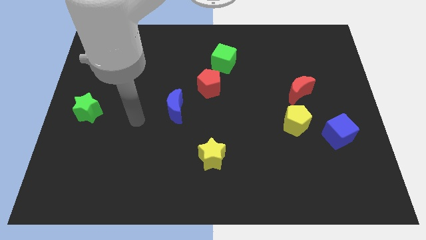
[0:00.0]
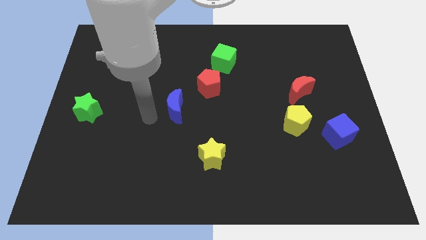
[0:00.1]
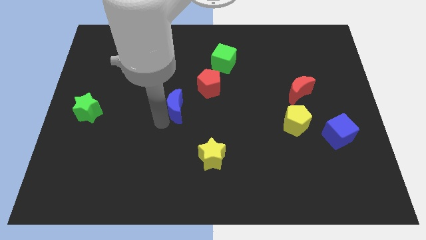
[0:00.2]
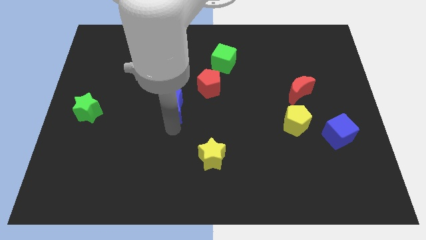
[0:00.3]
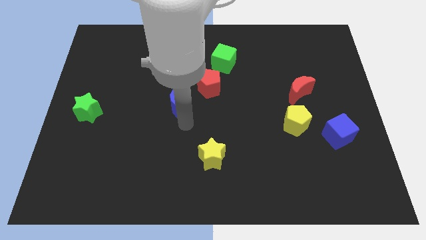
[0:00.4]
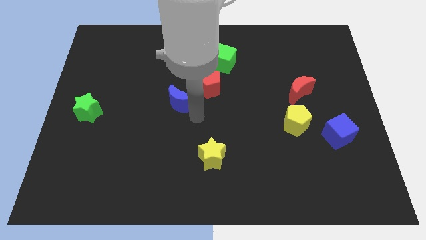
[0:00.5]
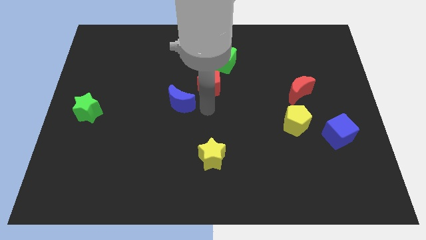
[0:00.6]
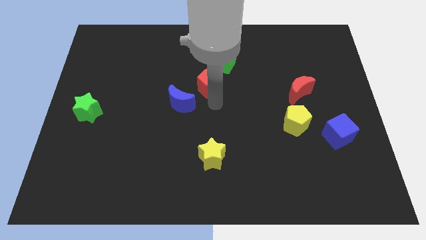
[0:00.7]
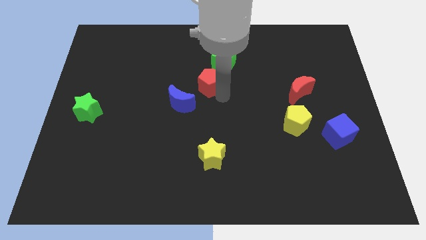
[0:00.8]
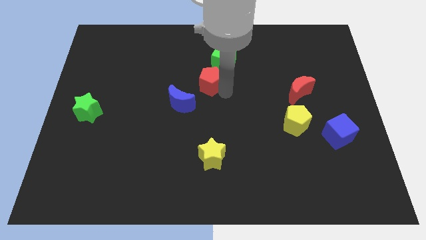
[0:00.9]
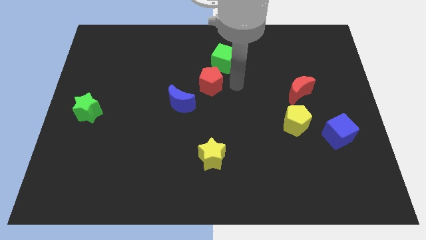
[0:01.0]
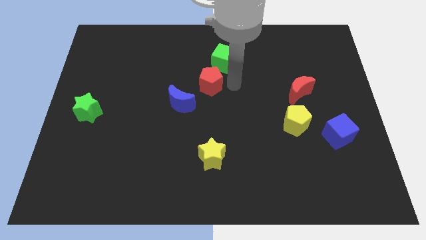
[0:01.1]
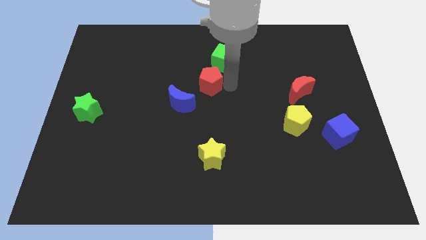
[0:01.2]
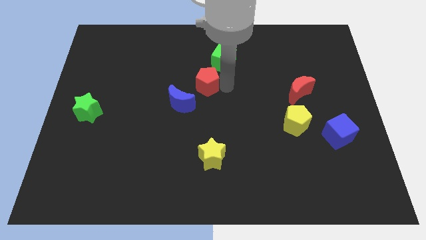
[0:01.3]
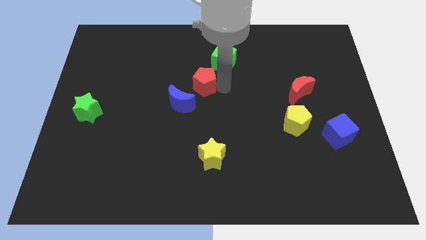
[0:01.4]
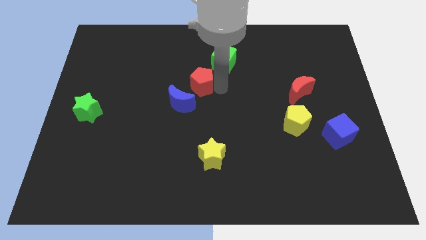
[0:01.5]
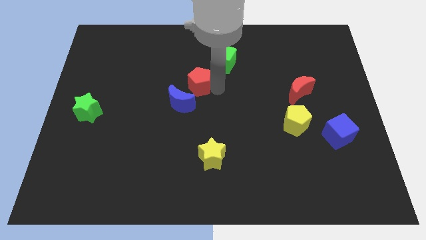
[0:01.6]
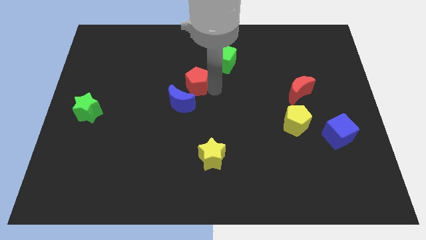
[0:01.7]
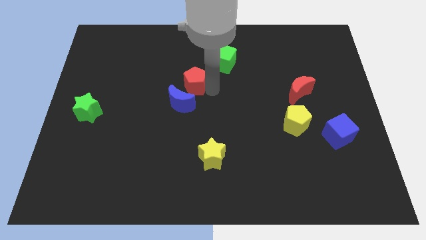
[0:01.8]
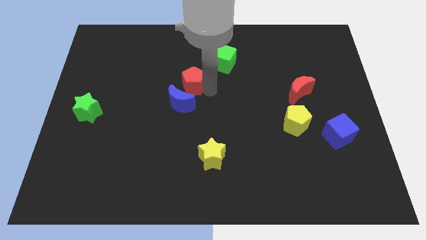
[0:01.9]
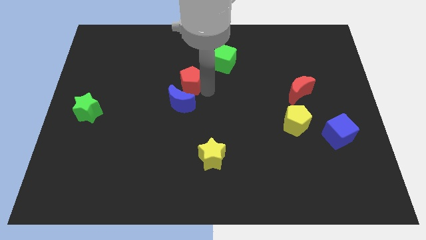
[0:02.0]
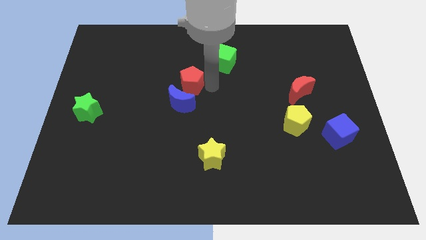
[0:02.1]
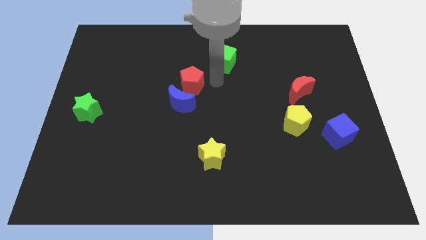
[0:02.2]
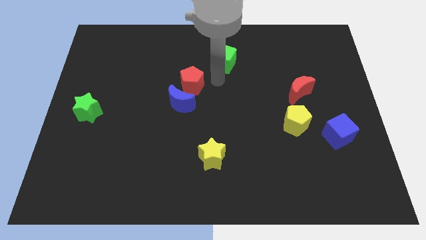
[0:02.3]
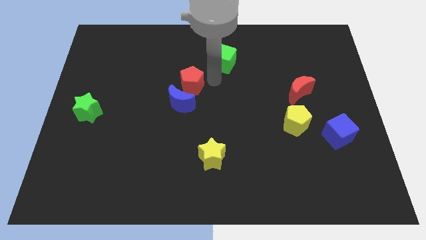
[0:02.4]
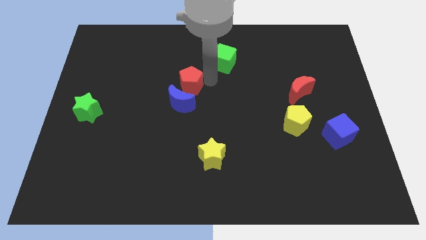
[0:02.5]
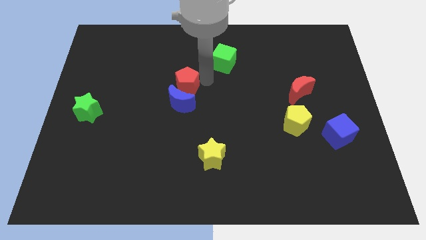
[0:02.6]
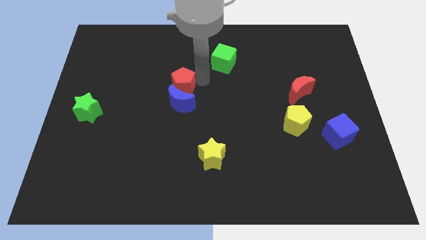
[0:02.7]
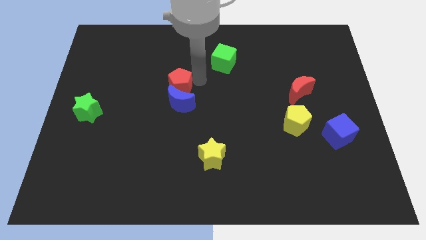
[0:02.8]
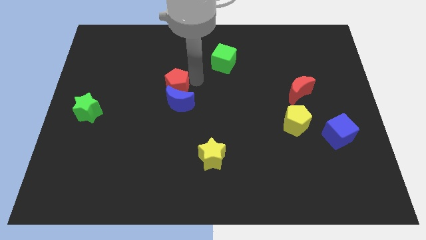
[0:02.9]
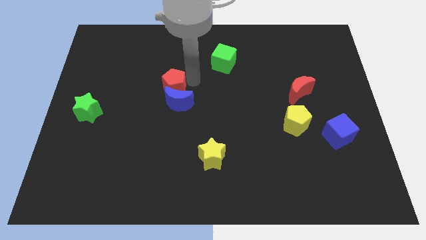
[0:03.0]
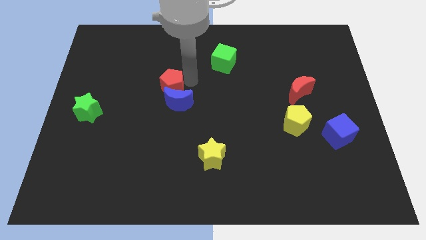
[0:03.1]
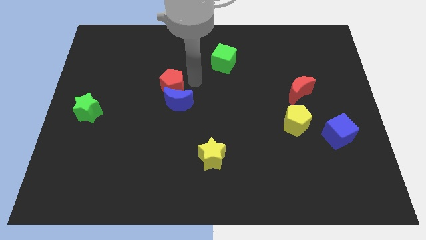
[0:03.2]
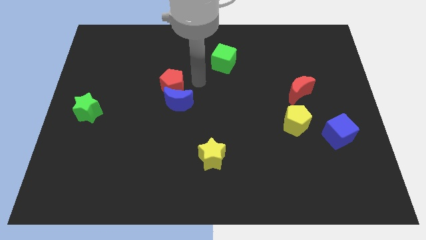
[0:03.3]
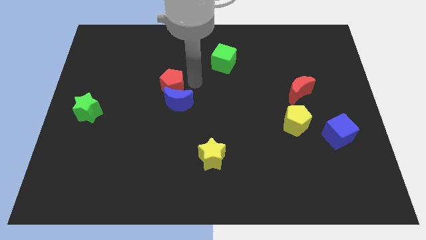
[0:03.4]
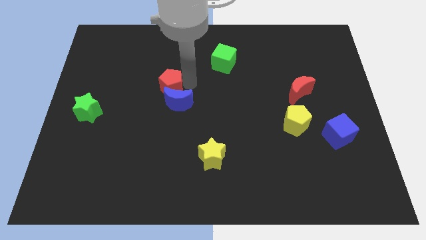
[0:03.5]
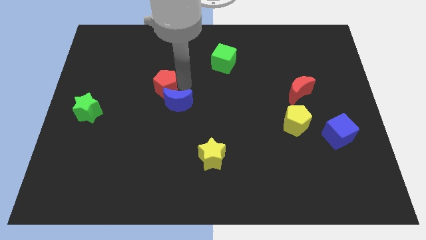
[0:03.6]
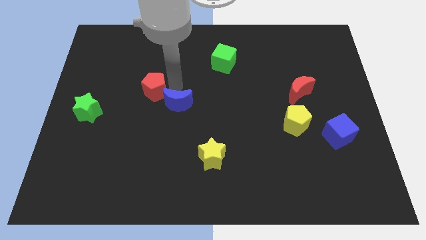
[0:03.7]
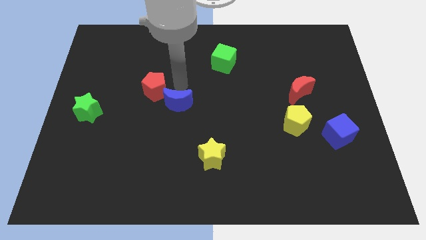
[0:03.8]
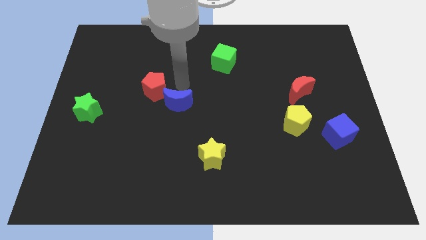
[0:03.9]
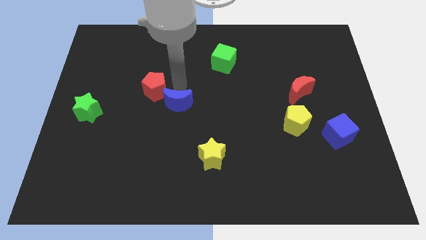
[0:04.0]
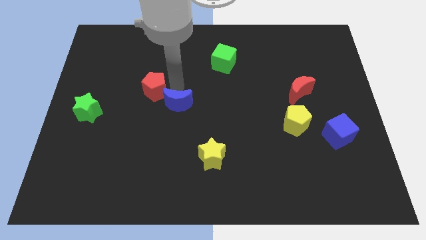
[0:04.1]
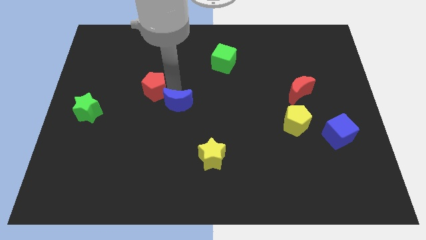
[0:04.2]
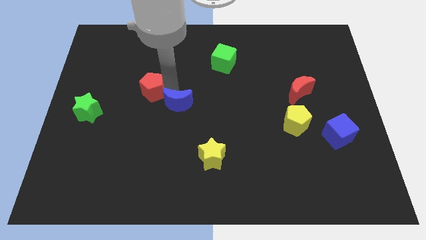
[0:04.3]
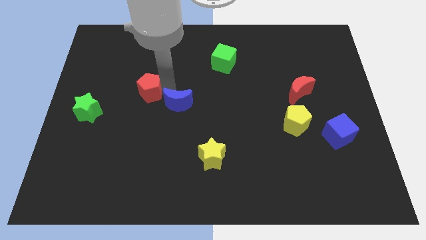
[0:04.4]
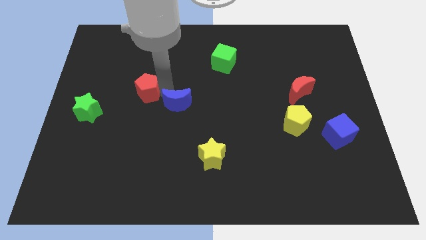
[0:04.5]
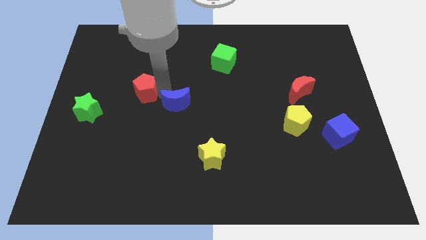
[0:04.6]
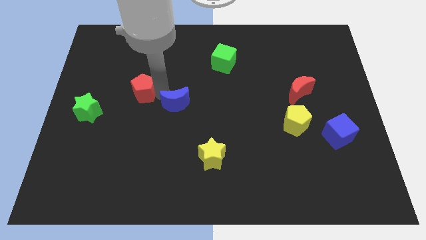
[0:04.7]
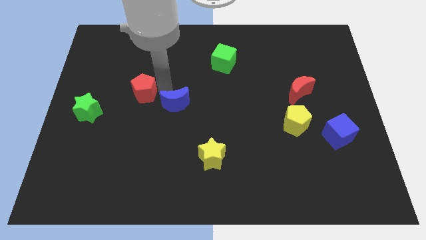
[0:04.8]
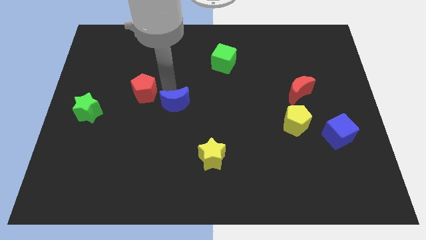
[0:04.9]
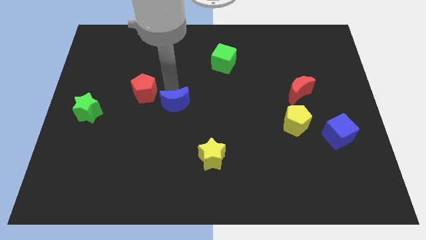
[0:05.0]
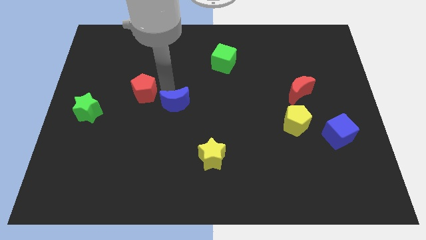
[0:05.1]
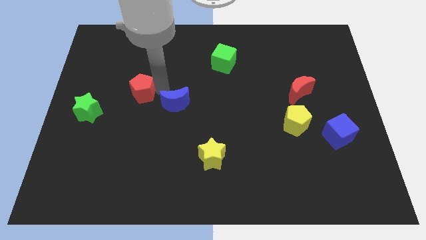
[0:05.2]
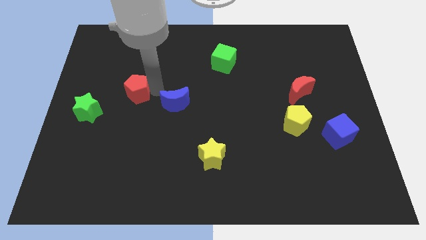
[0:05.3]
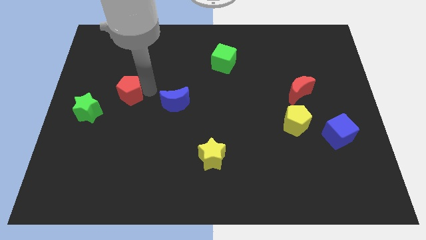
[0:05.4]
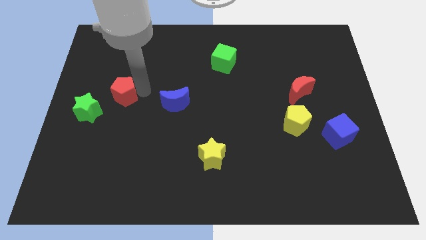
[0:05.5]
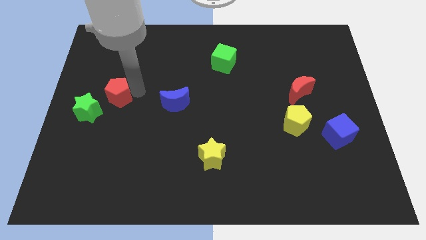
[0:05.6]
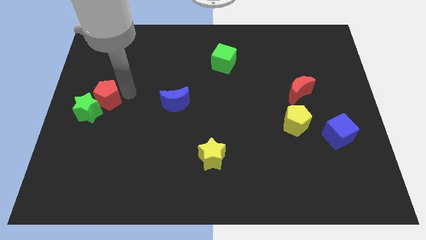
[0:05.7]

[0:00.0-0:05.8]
slide the red pentagon towards the green star

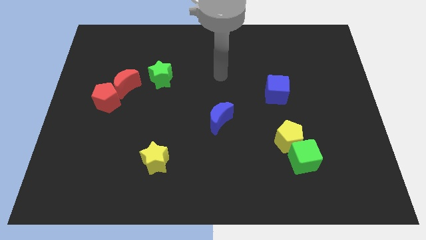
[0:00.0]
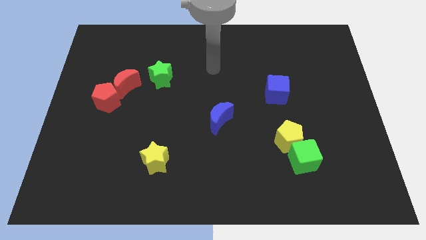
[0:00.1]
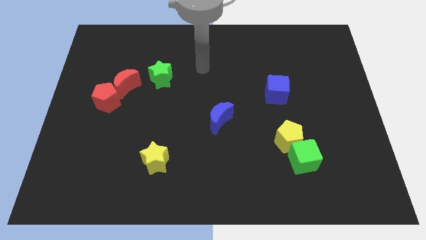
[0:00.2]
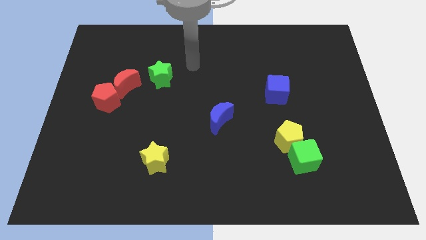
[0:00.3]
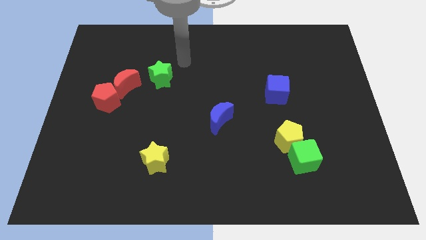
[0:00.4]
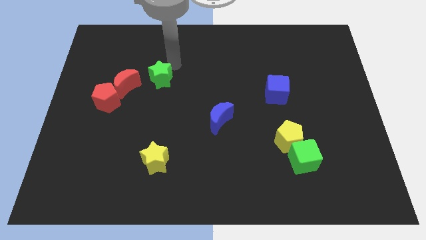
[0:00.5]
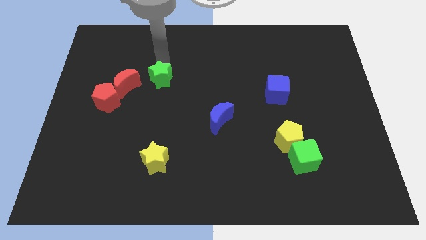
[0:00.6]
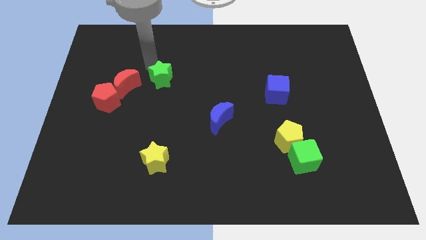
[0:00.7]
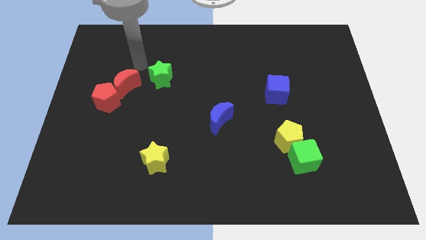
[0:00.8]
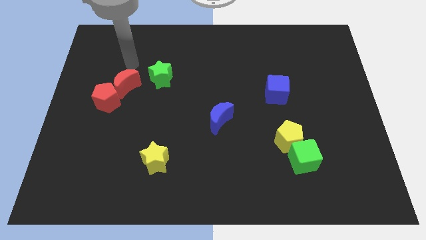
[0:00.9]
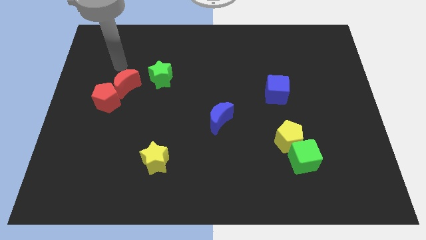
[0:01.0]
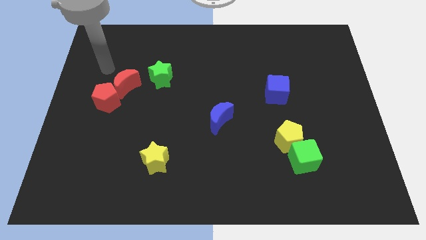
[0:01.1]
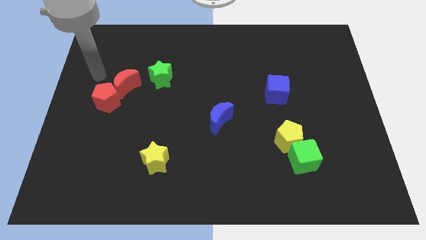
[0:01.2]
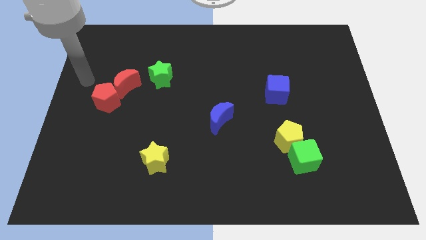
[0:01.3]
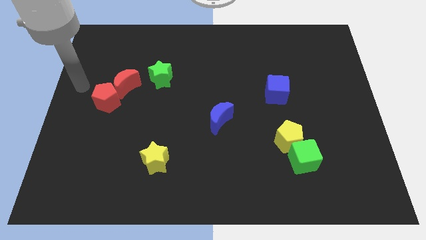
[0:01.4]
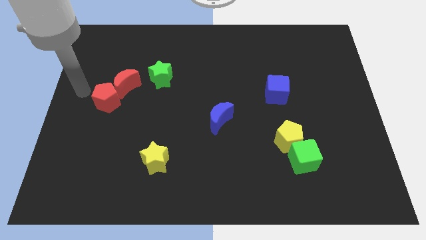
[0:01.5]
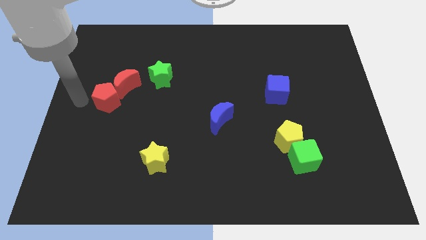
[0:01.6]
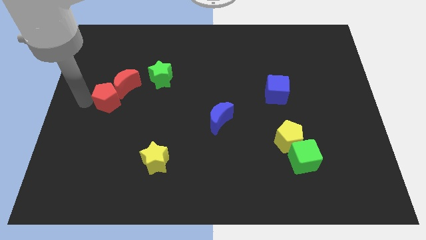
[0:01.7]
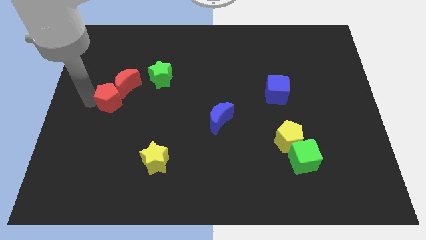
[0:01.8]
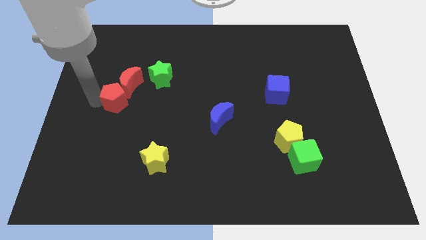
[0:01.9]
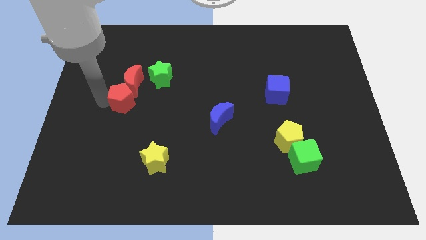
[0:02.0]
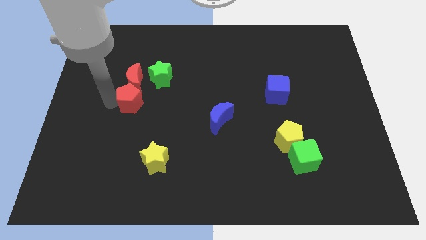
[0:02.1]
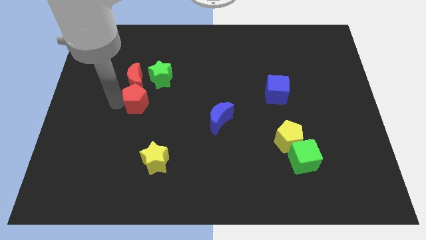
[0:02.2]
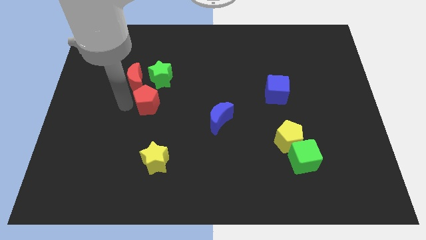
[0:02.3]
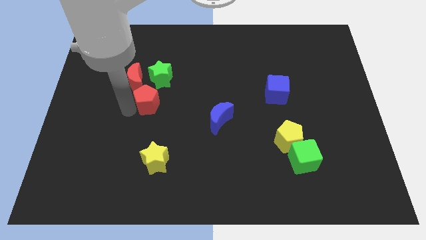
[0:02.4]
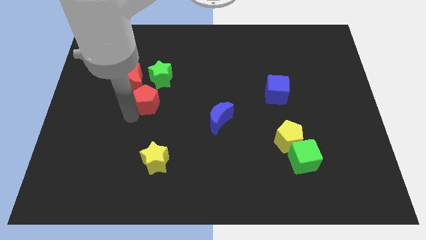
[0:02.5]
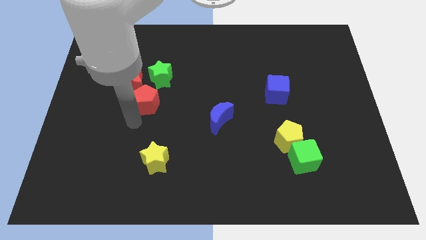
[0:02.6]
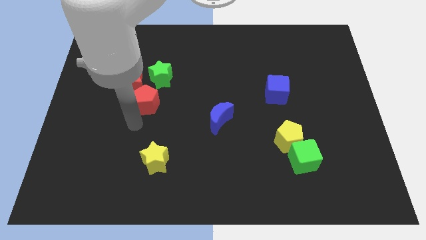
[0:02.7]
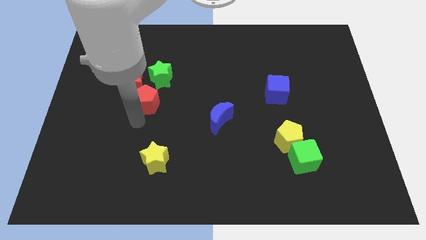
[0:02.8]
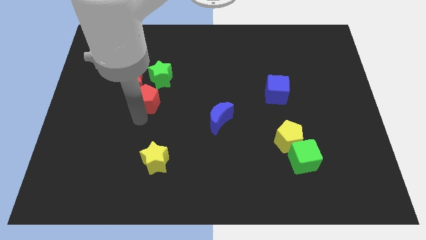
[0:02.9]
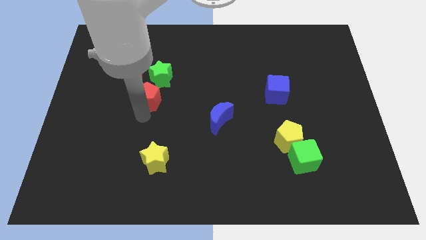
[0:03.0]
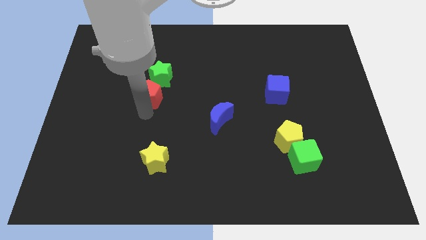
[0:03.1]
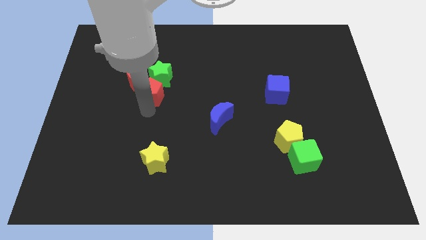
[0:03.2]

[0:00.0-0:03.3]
push the red pentagon next to the green star
